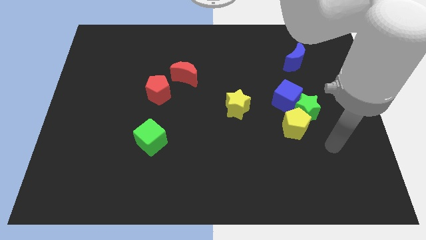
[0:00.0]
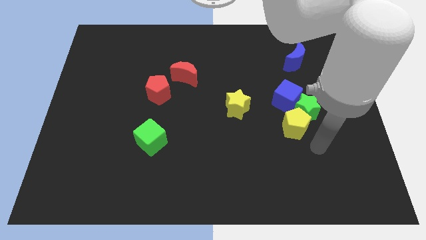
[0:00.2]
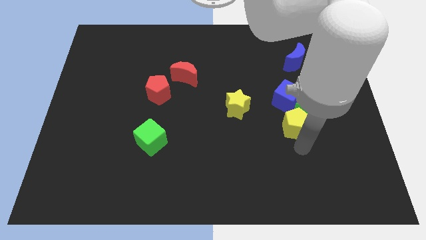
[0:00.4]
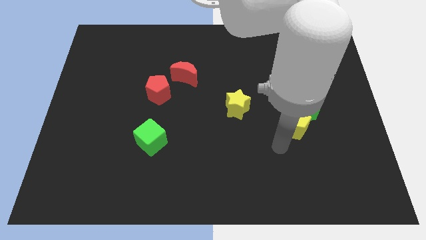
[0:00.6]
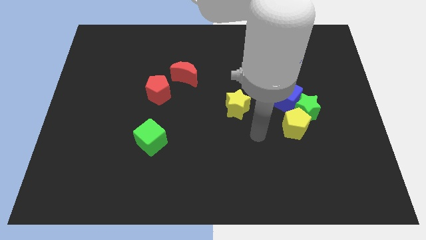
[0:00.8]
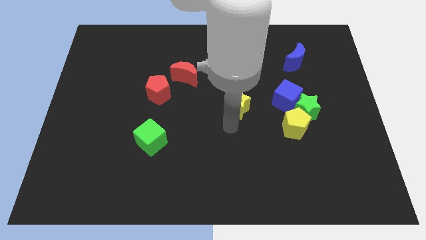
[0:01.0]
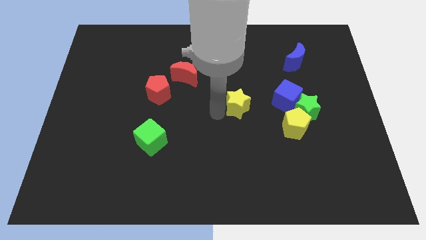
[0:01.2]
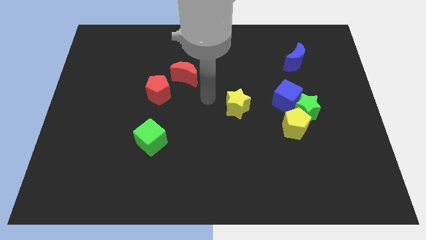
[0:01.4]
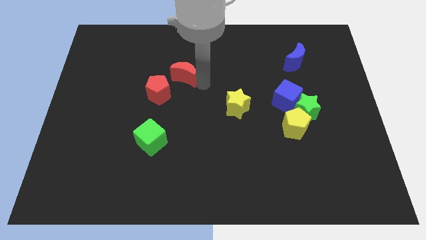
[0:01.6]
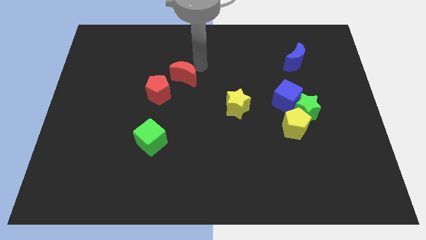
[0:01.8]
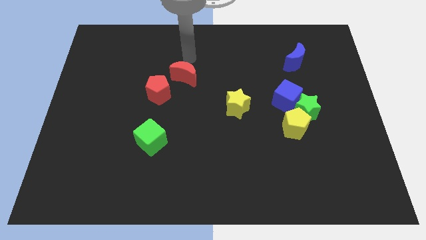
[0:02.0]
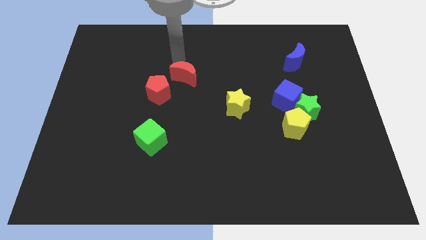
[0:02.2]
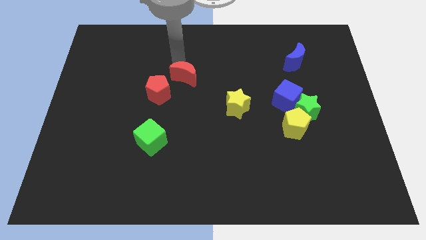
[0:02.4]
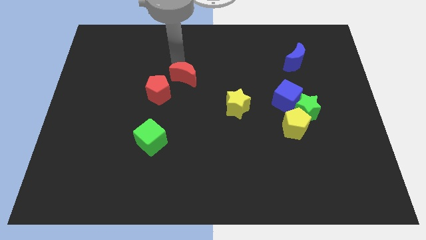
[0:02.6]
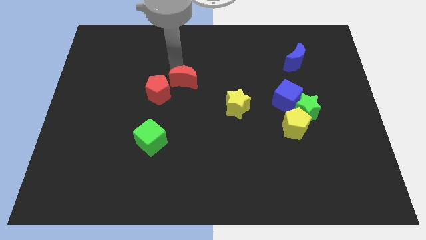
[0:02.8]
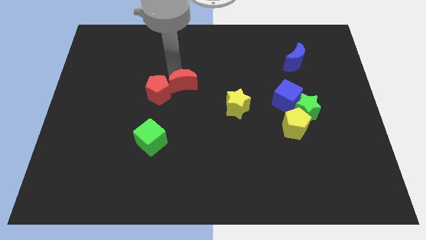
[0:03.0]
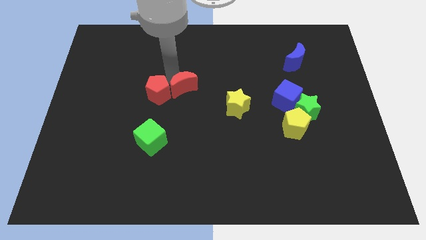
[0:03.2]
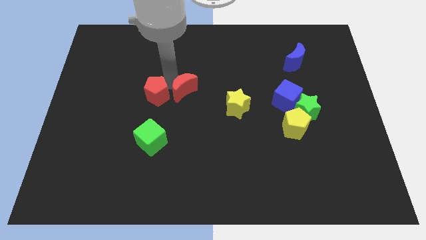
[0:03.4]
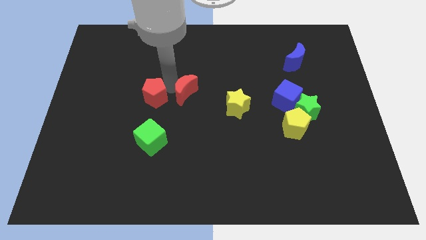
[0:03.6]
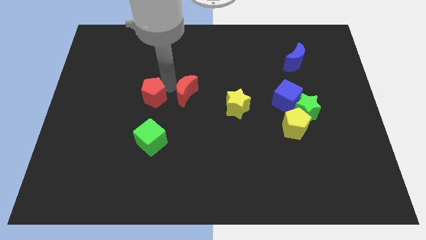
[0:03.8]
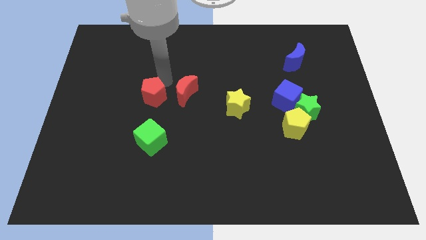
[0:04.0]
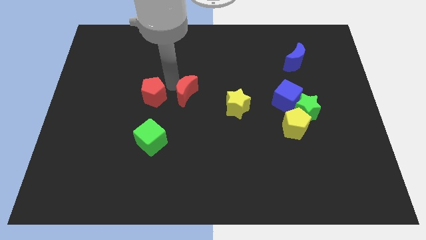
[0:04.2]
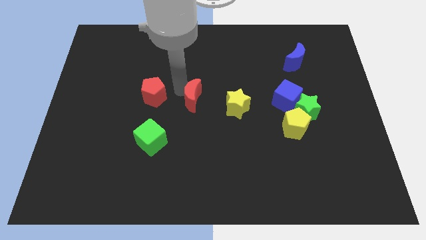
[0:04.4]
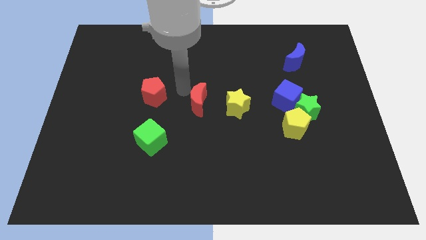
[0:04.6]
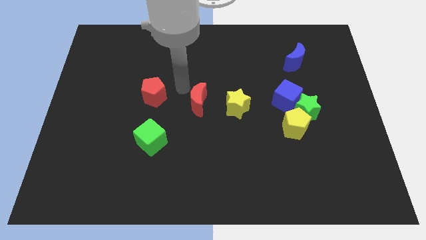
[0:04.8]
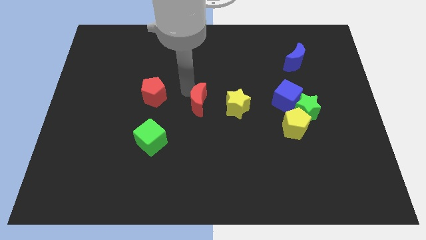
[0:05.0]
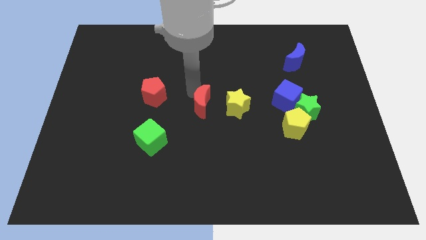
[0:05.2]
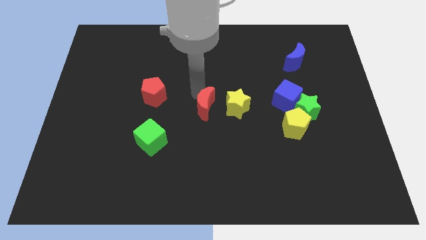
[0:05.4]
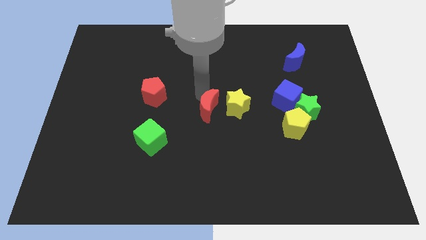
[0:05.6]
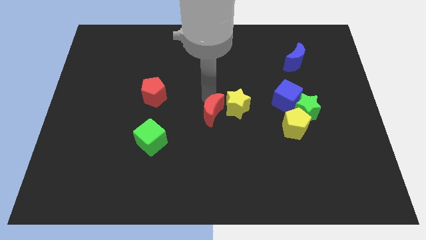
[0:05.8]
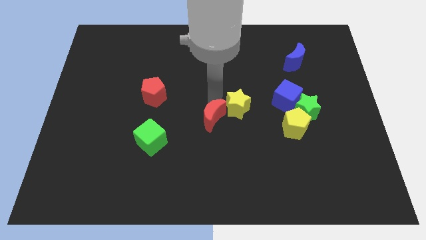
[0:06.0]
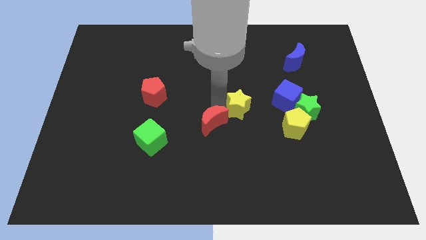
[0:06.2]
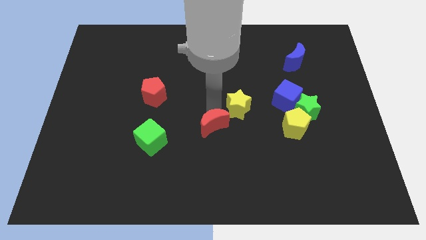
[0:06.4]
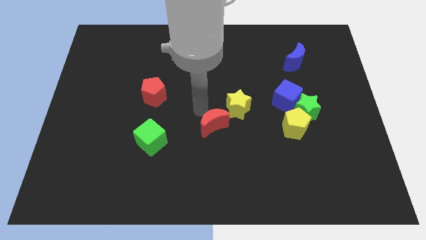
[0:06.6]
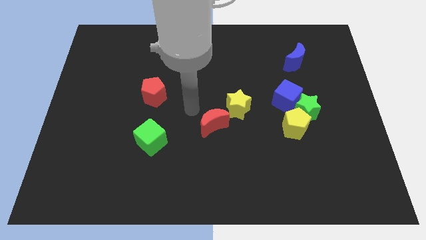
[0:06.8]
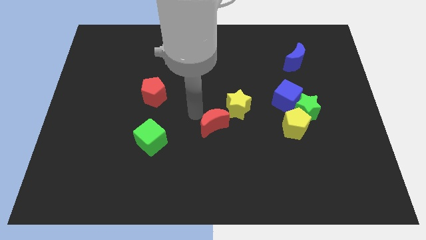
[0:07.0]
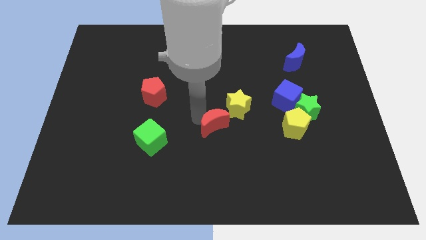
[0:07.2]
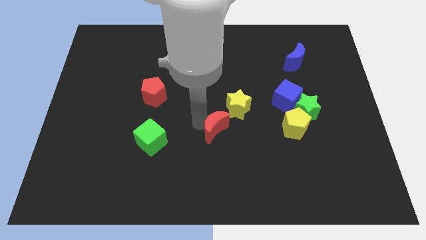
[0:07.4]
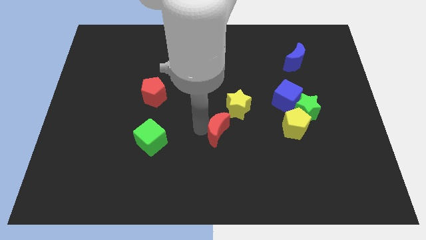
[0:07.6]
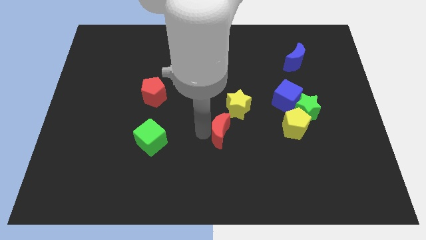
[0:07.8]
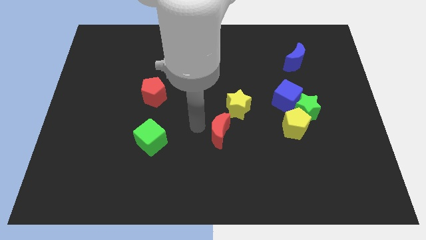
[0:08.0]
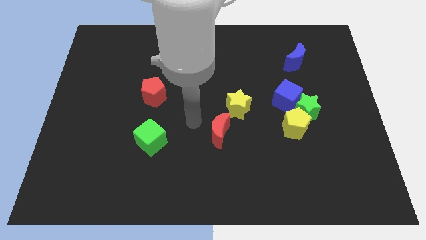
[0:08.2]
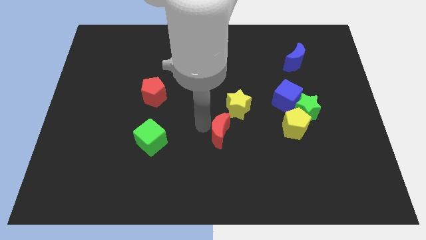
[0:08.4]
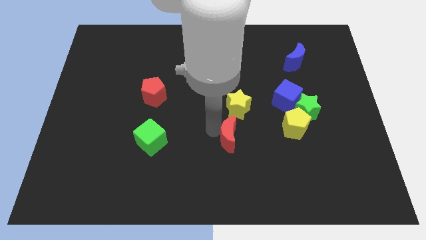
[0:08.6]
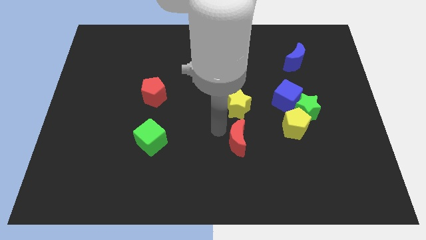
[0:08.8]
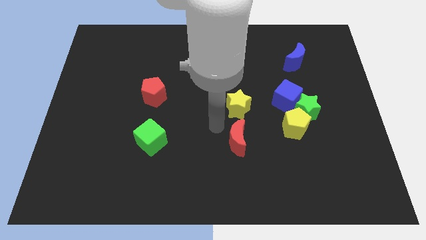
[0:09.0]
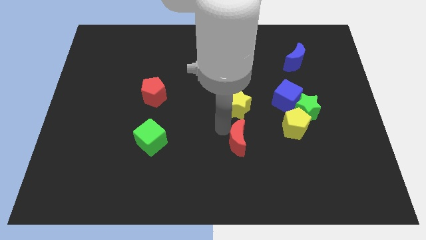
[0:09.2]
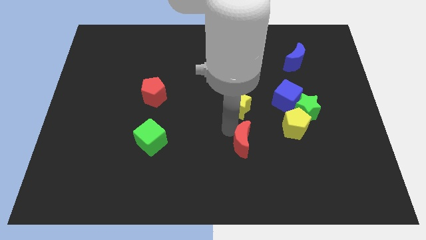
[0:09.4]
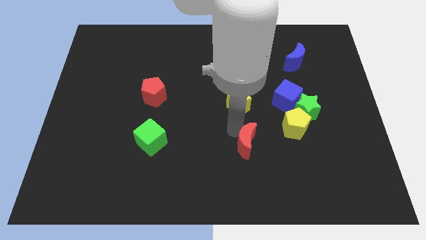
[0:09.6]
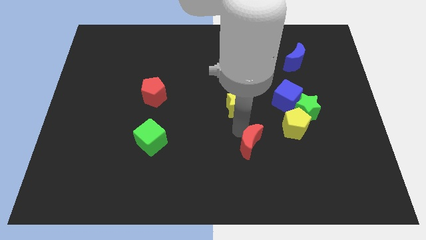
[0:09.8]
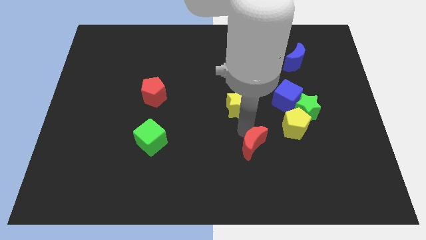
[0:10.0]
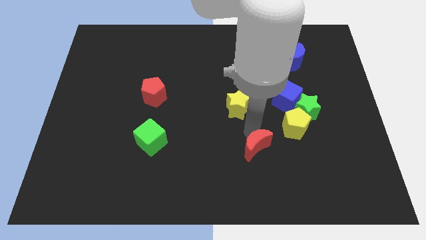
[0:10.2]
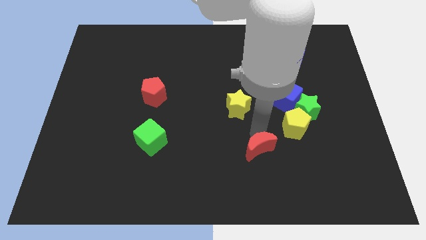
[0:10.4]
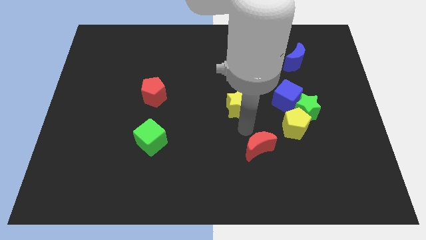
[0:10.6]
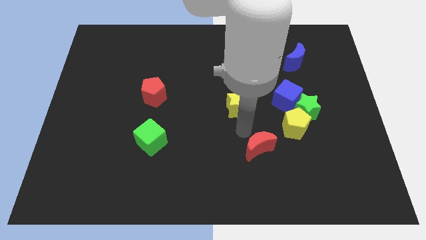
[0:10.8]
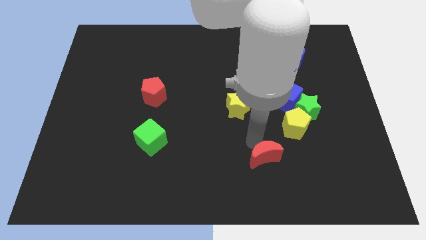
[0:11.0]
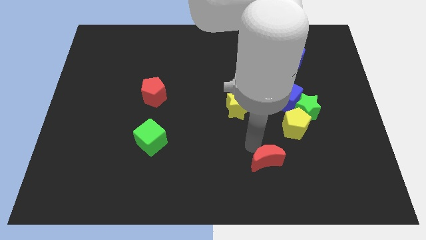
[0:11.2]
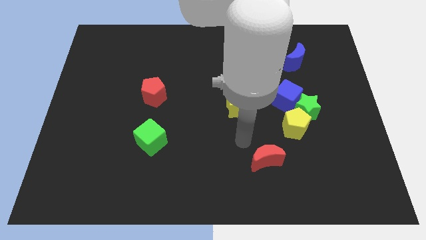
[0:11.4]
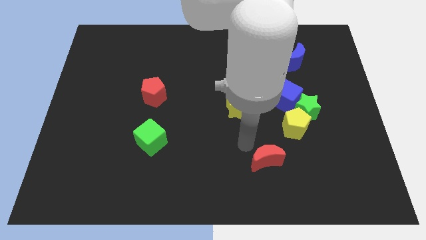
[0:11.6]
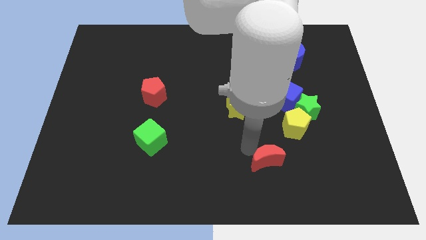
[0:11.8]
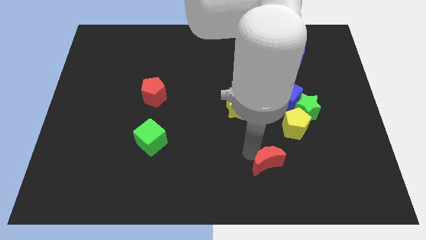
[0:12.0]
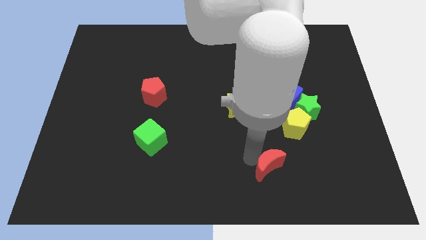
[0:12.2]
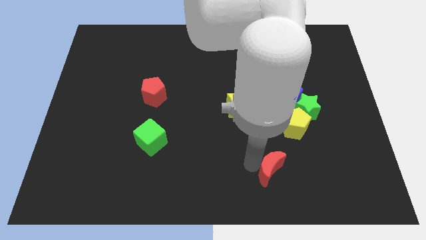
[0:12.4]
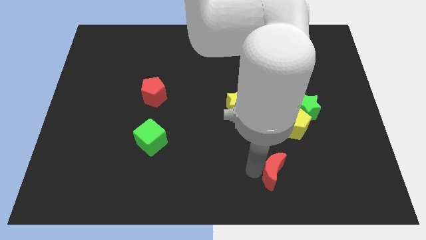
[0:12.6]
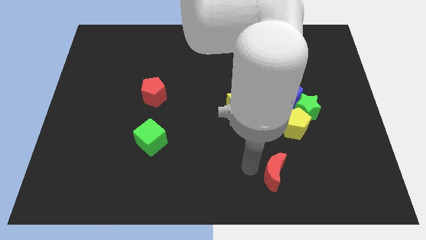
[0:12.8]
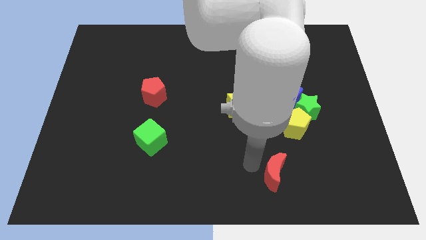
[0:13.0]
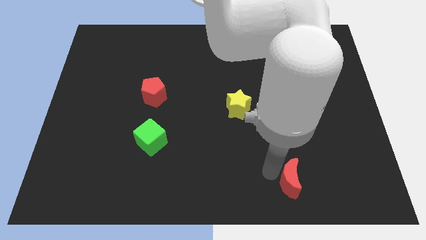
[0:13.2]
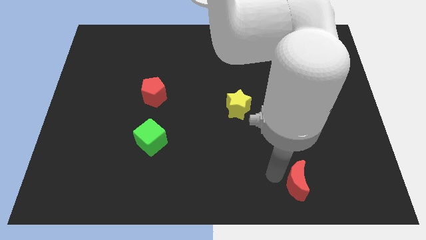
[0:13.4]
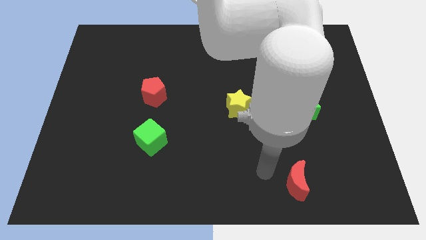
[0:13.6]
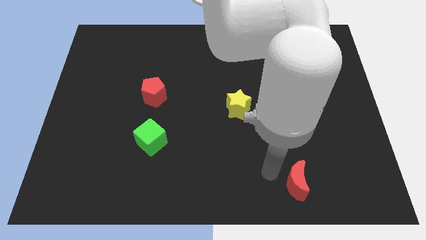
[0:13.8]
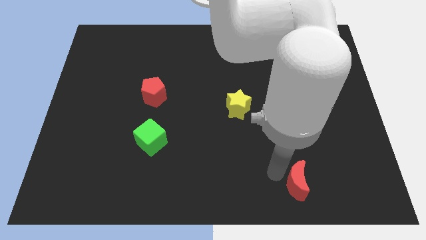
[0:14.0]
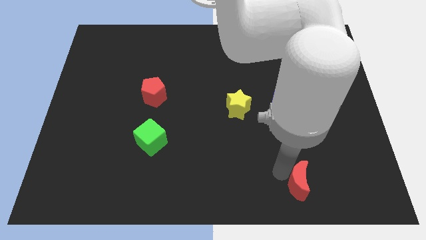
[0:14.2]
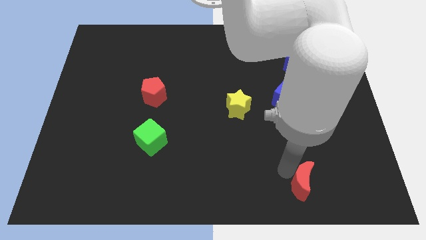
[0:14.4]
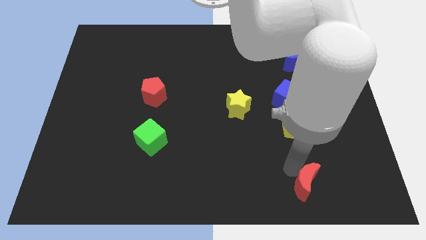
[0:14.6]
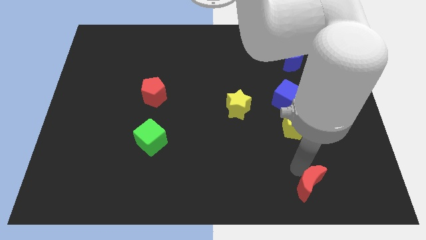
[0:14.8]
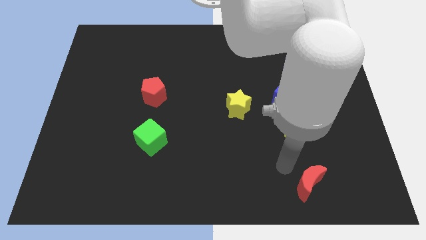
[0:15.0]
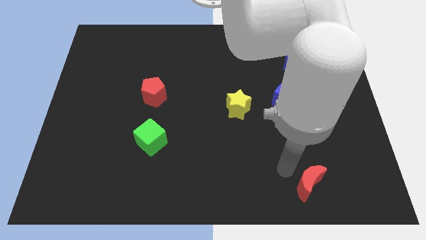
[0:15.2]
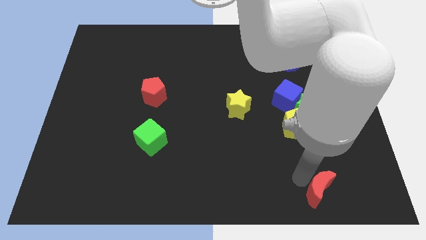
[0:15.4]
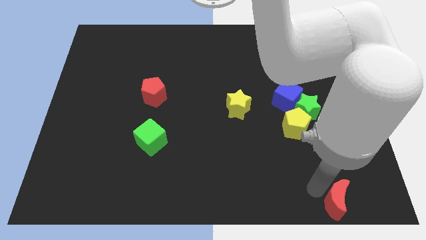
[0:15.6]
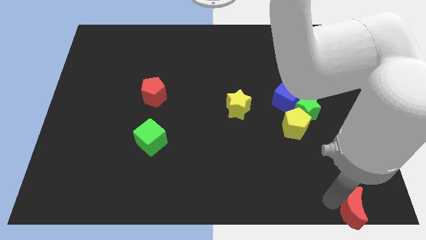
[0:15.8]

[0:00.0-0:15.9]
slide the red moon to the bottom right of the board
